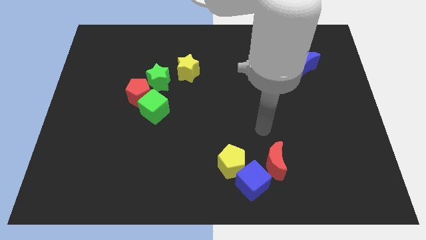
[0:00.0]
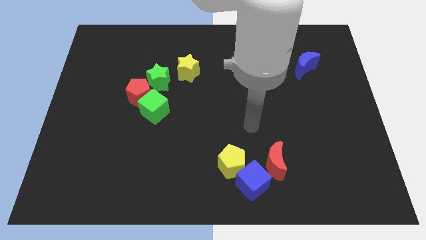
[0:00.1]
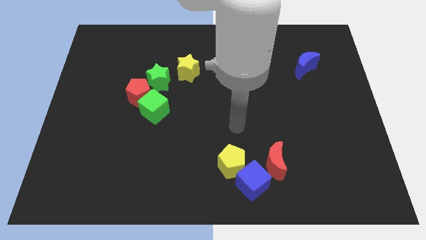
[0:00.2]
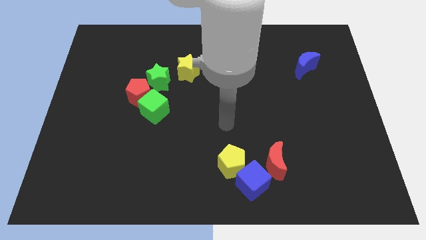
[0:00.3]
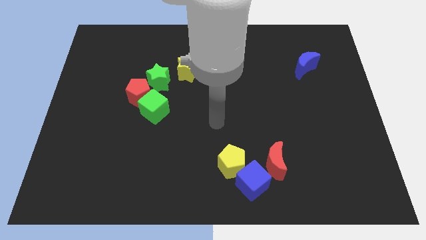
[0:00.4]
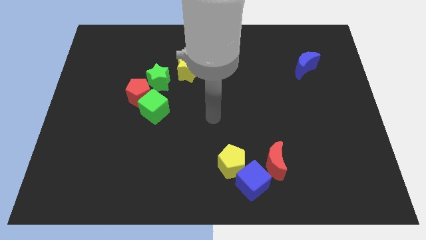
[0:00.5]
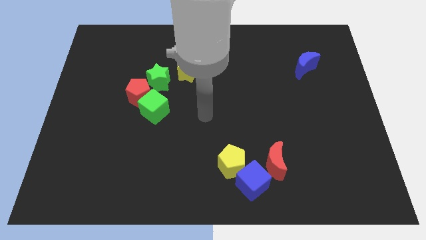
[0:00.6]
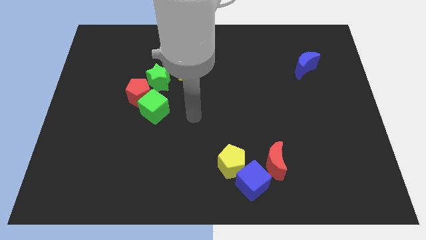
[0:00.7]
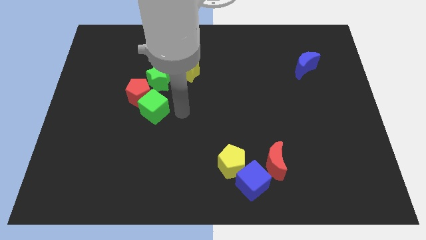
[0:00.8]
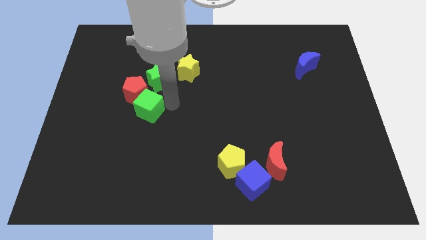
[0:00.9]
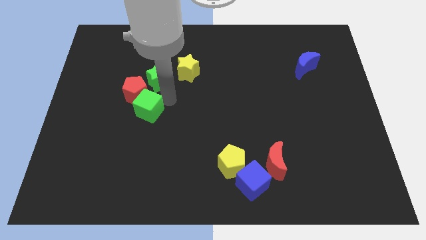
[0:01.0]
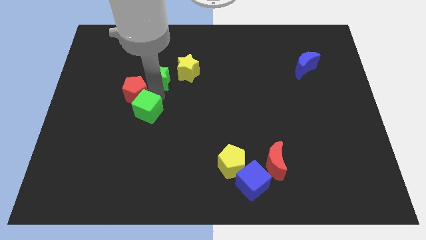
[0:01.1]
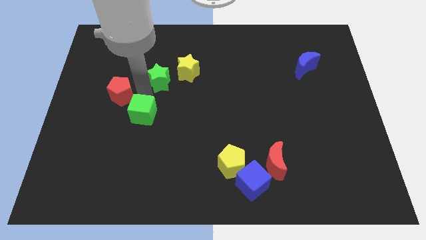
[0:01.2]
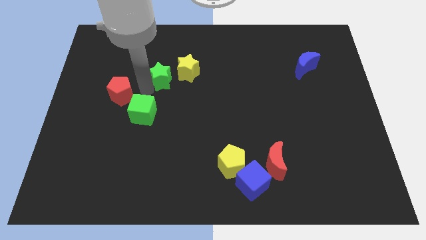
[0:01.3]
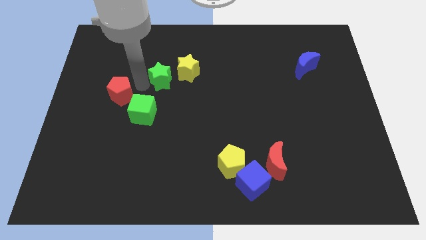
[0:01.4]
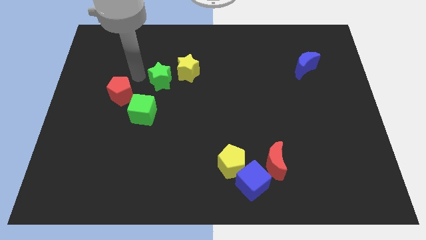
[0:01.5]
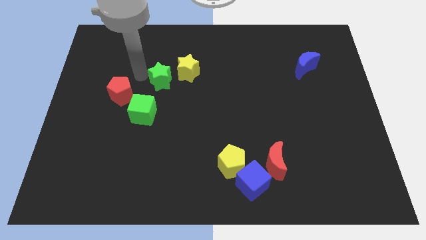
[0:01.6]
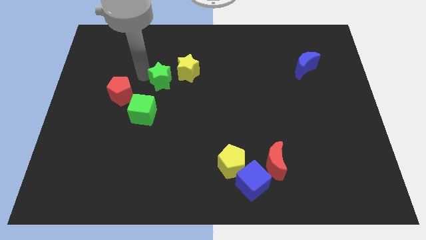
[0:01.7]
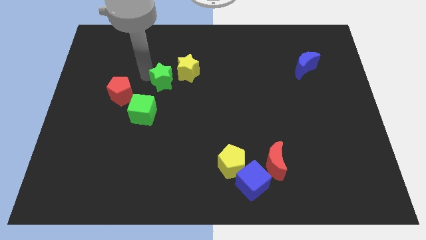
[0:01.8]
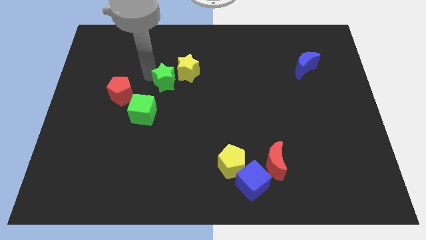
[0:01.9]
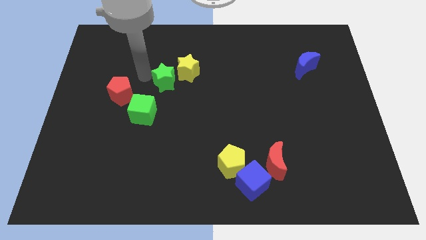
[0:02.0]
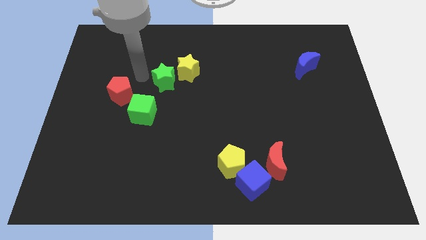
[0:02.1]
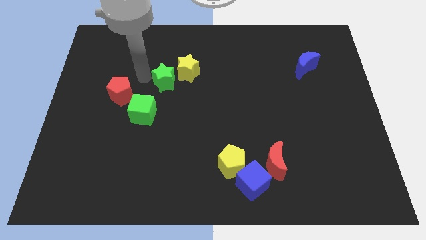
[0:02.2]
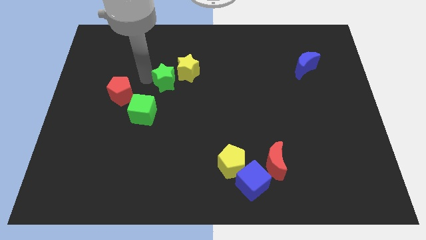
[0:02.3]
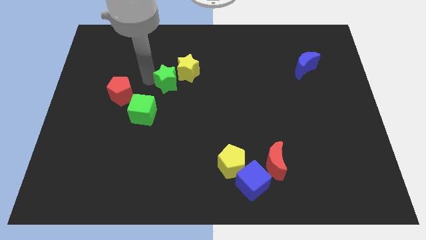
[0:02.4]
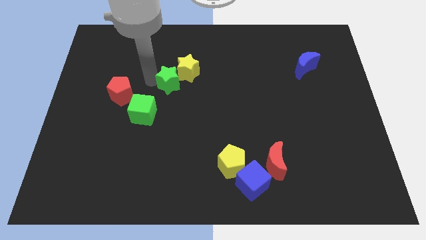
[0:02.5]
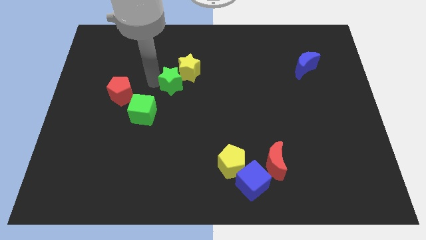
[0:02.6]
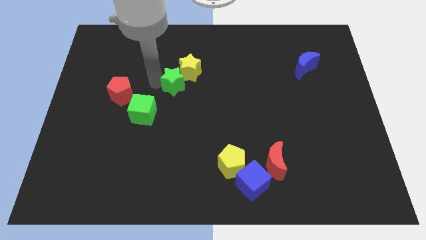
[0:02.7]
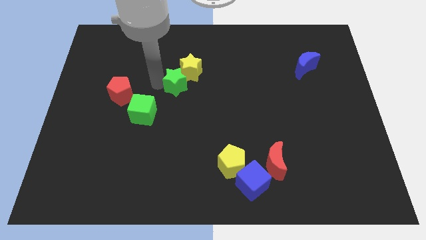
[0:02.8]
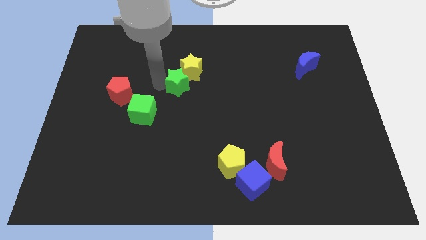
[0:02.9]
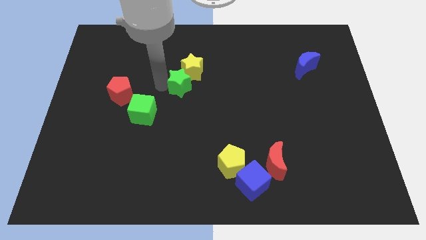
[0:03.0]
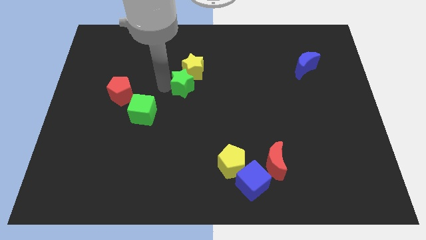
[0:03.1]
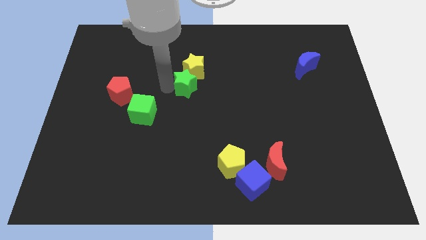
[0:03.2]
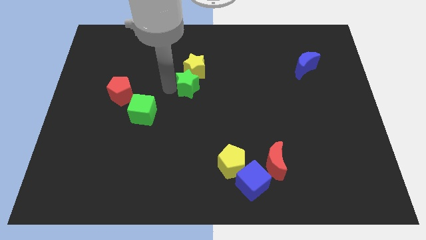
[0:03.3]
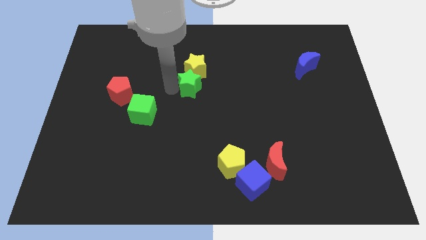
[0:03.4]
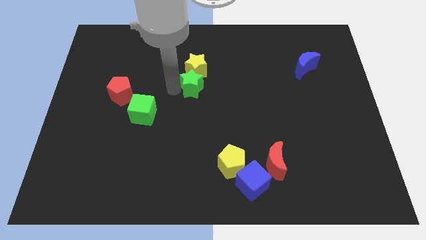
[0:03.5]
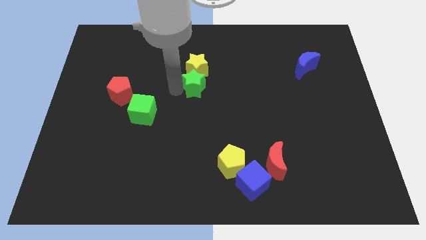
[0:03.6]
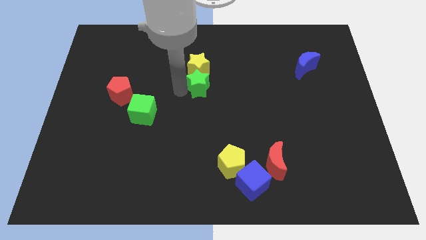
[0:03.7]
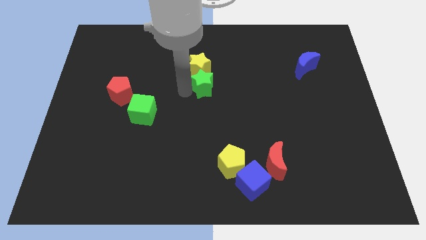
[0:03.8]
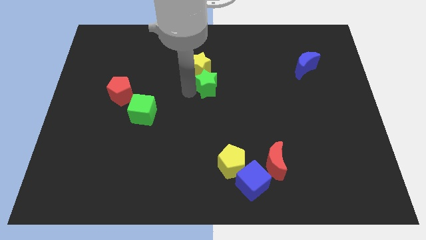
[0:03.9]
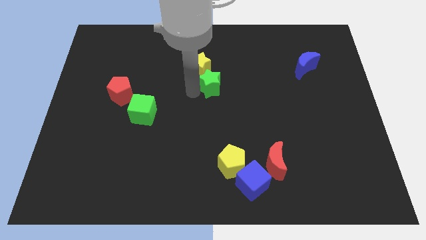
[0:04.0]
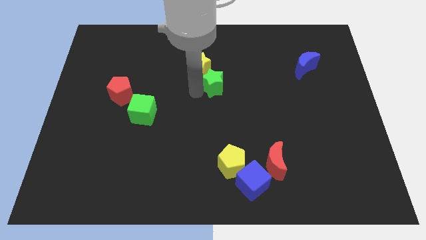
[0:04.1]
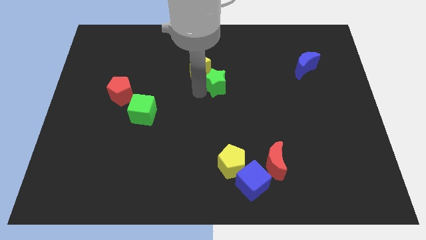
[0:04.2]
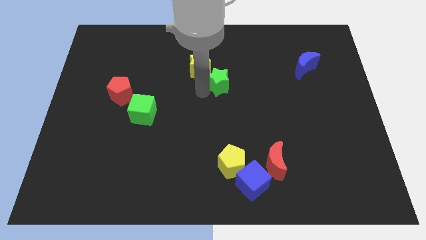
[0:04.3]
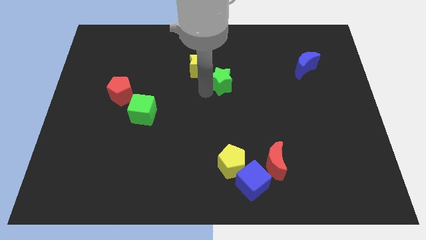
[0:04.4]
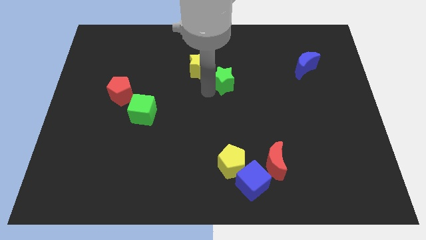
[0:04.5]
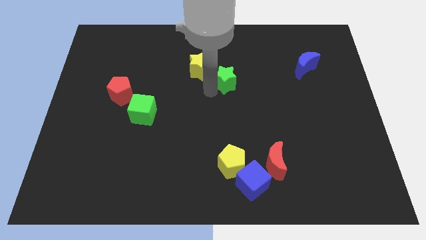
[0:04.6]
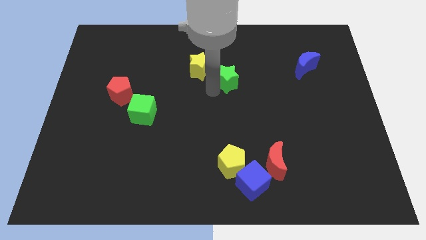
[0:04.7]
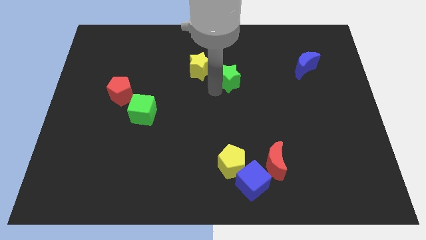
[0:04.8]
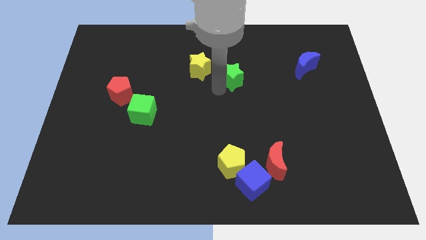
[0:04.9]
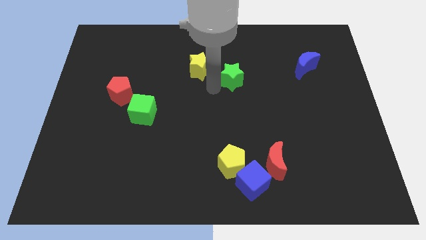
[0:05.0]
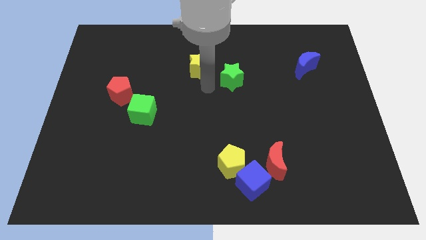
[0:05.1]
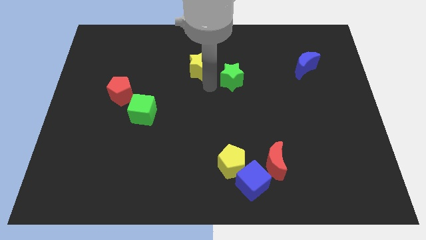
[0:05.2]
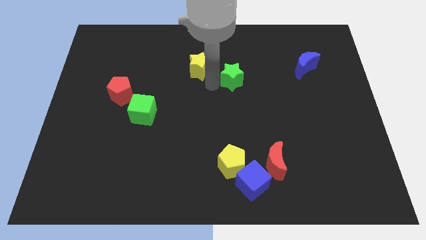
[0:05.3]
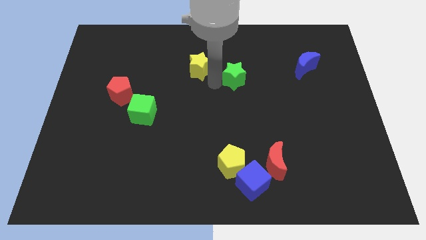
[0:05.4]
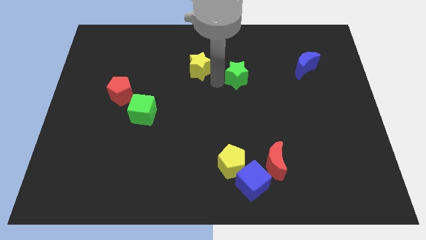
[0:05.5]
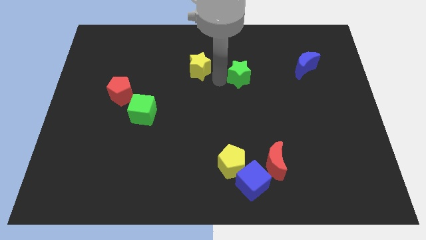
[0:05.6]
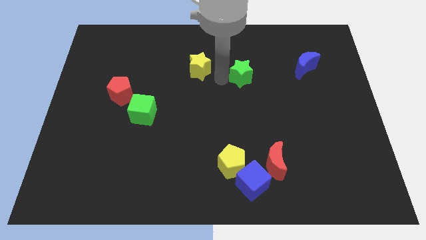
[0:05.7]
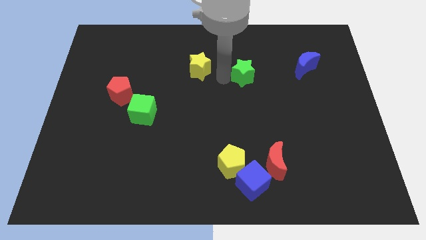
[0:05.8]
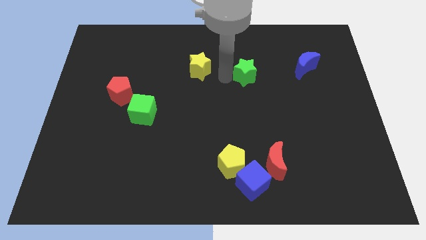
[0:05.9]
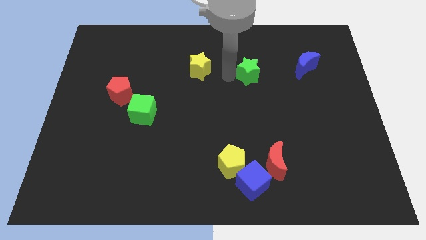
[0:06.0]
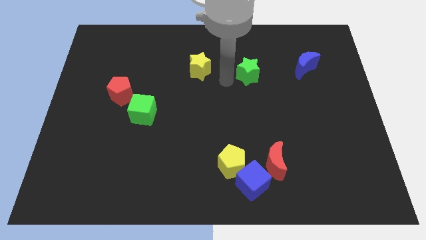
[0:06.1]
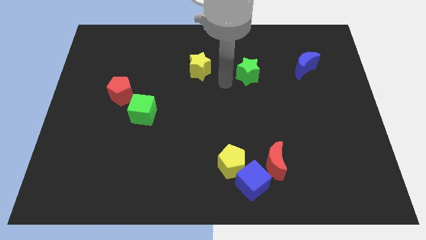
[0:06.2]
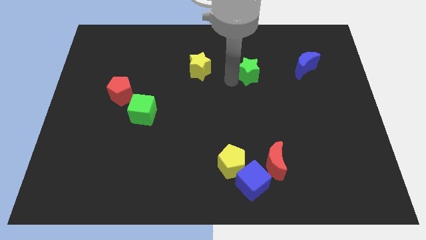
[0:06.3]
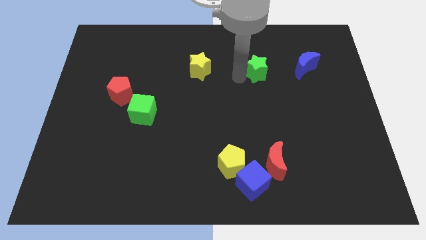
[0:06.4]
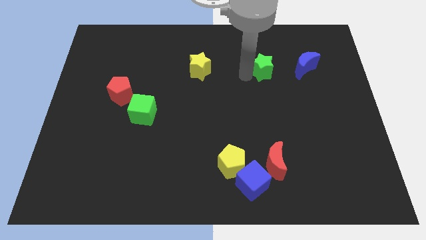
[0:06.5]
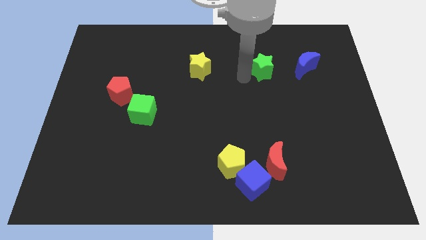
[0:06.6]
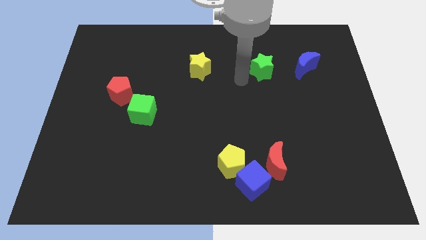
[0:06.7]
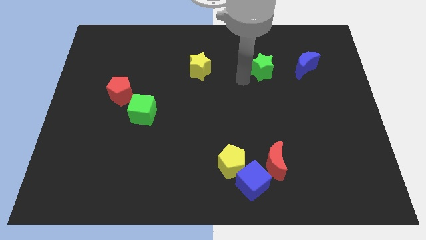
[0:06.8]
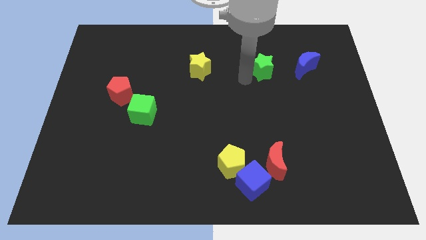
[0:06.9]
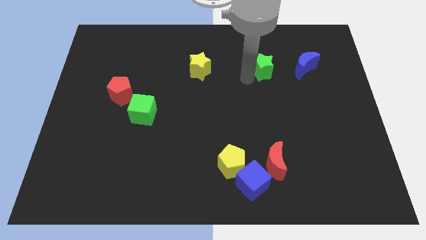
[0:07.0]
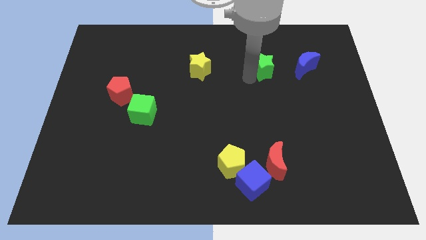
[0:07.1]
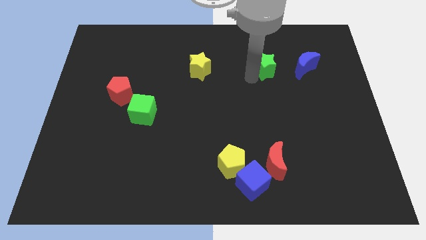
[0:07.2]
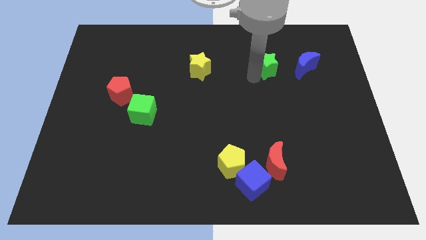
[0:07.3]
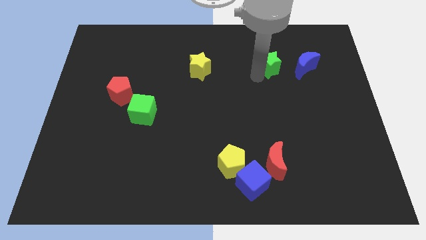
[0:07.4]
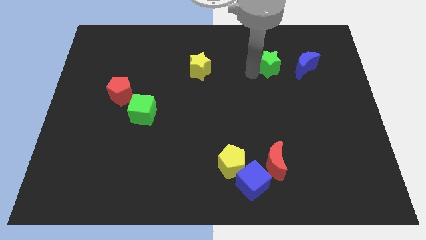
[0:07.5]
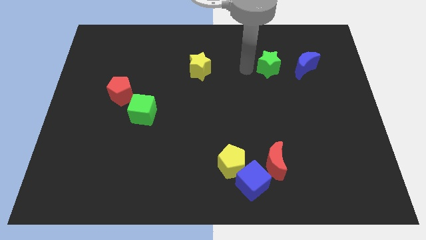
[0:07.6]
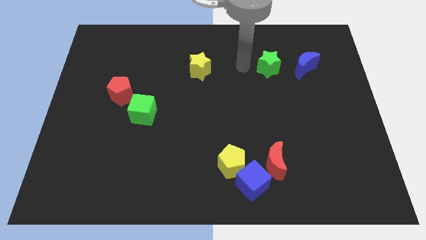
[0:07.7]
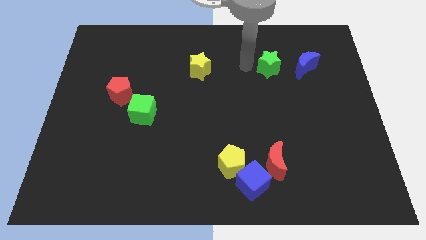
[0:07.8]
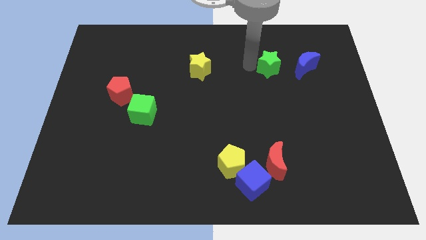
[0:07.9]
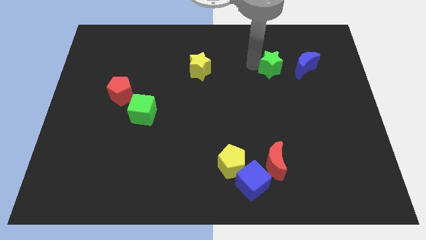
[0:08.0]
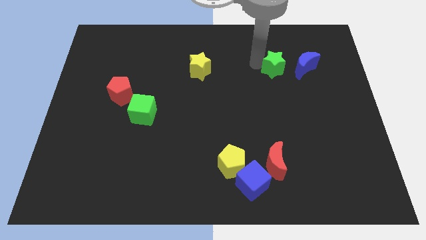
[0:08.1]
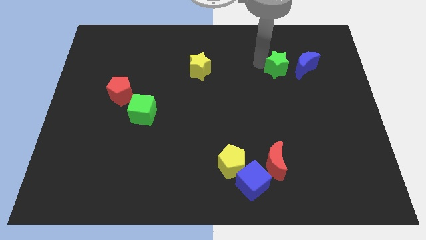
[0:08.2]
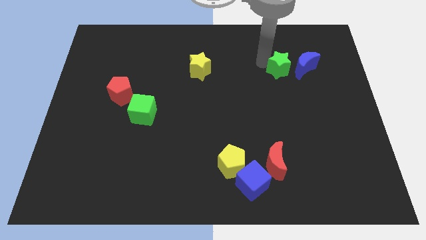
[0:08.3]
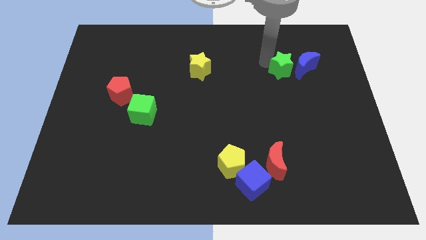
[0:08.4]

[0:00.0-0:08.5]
push the green star towards the blue moon
